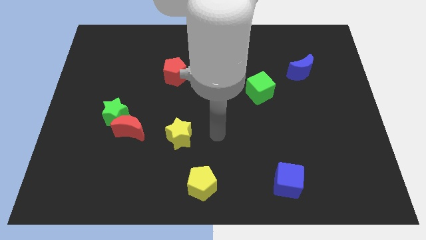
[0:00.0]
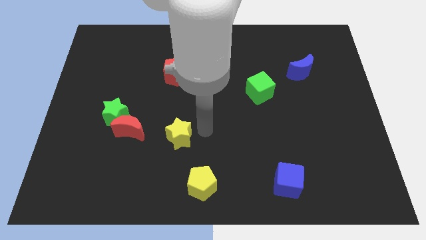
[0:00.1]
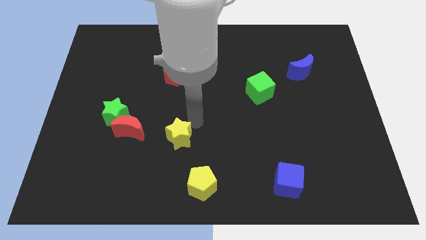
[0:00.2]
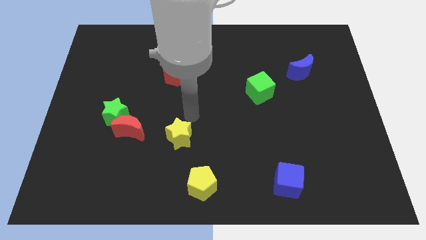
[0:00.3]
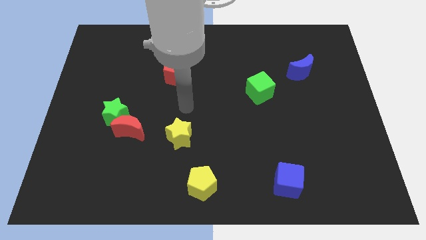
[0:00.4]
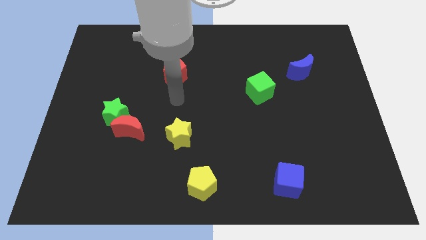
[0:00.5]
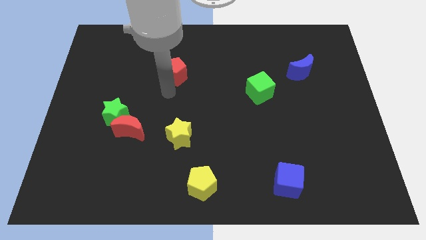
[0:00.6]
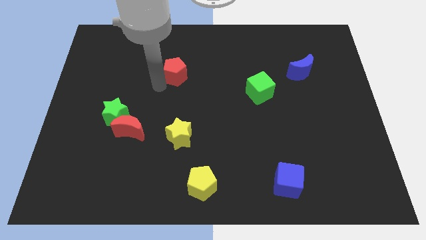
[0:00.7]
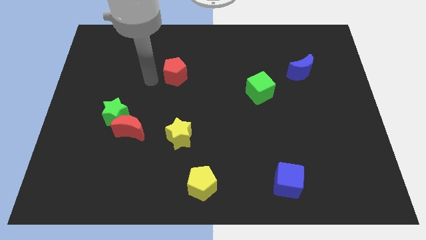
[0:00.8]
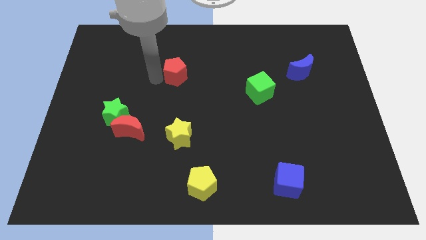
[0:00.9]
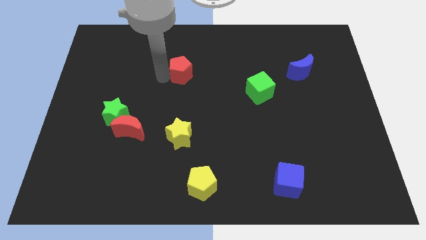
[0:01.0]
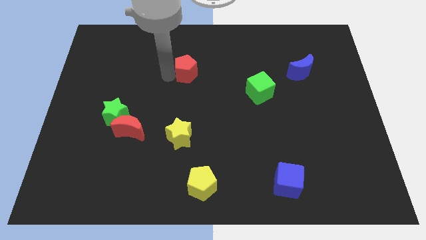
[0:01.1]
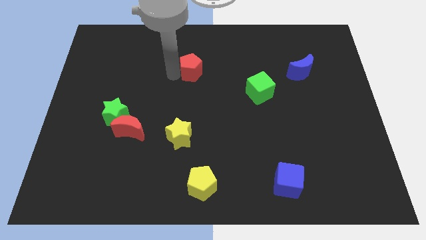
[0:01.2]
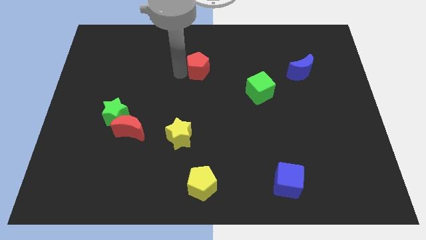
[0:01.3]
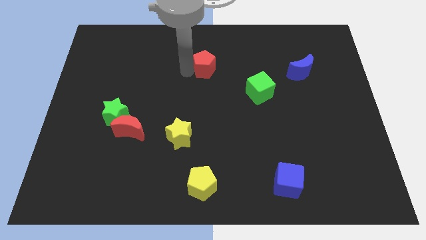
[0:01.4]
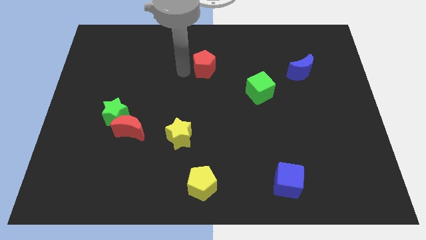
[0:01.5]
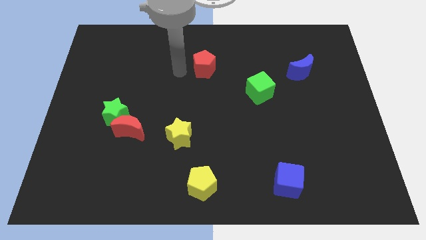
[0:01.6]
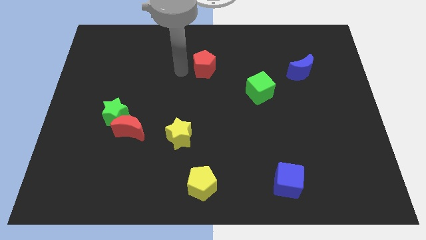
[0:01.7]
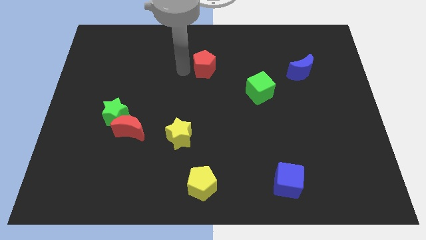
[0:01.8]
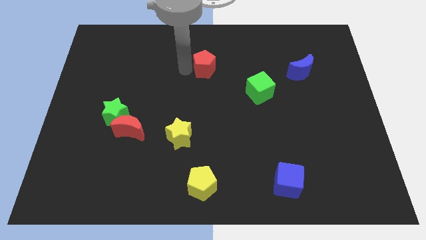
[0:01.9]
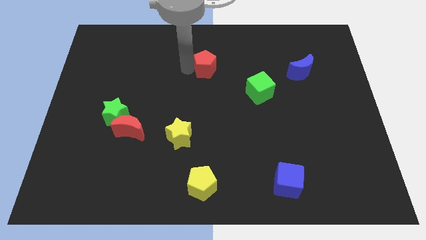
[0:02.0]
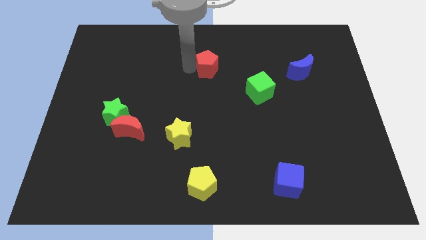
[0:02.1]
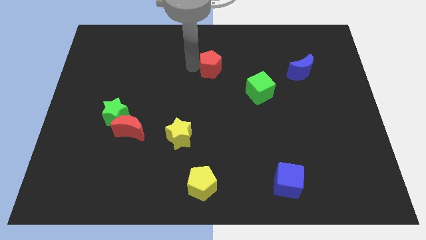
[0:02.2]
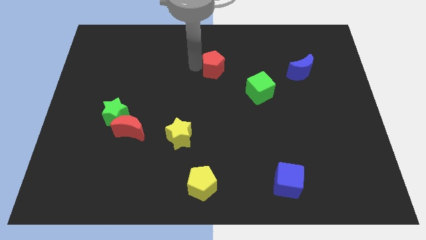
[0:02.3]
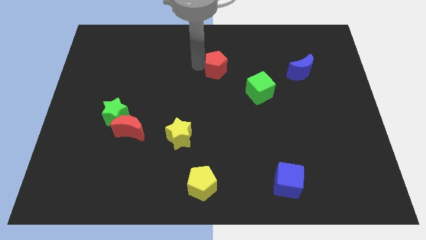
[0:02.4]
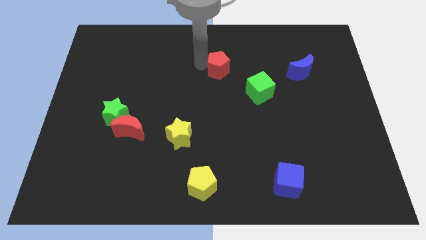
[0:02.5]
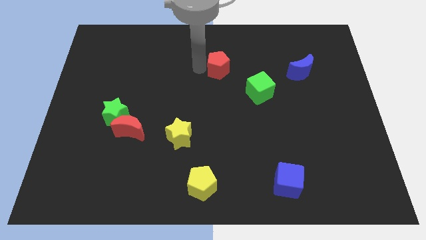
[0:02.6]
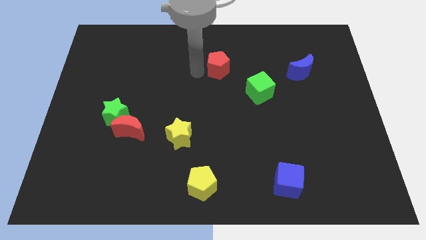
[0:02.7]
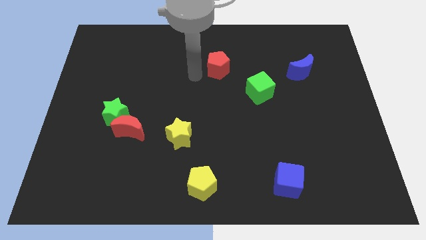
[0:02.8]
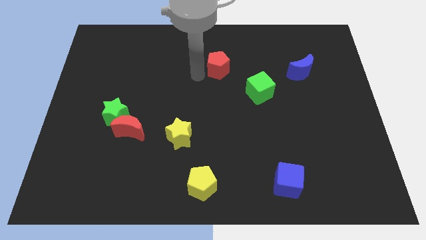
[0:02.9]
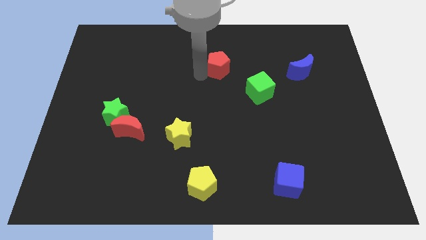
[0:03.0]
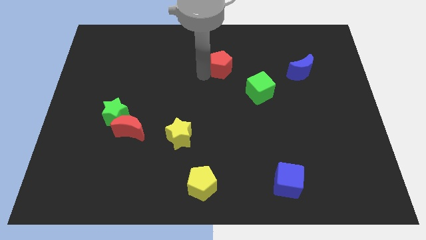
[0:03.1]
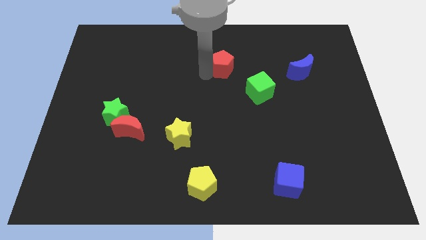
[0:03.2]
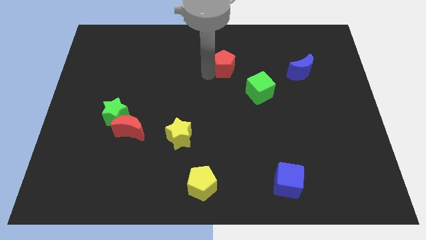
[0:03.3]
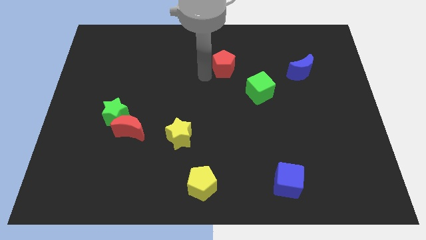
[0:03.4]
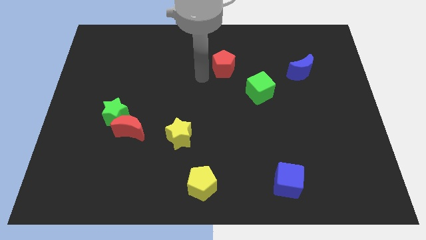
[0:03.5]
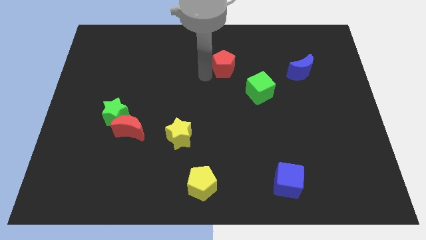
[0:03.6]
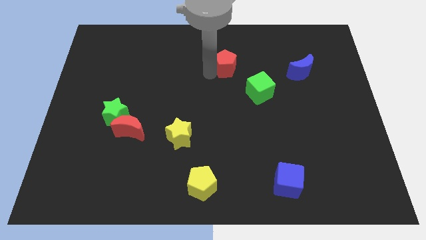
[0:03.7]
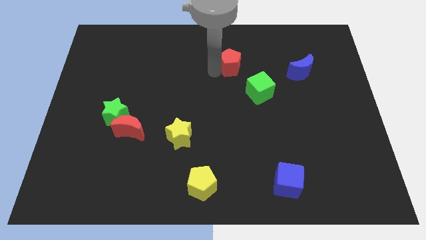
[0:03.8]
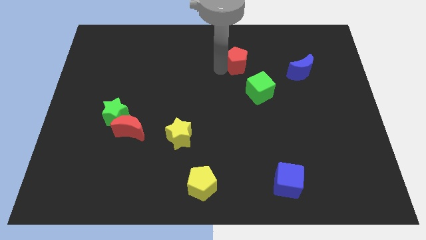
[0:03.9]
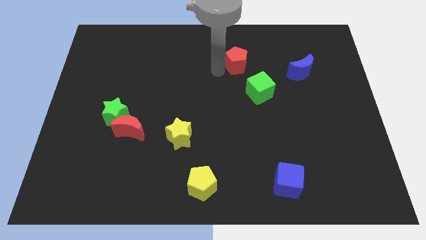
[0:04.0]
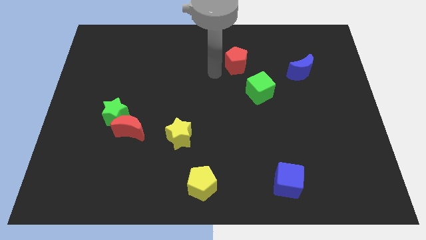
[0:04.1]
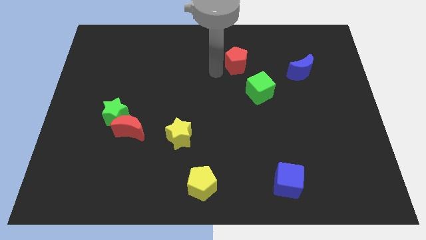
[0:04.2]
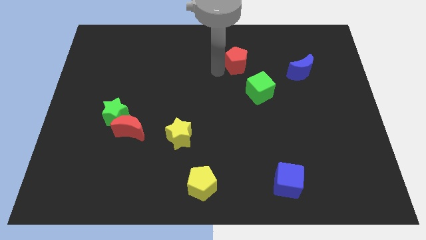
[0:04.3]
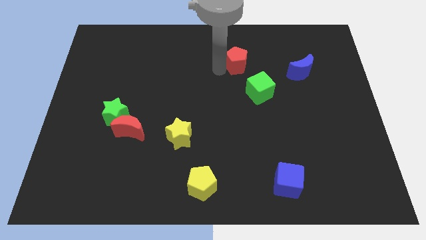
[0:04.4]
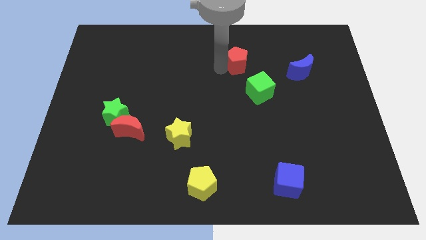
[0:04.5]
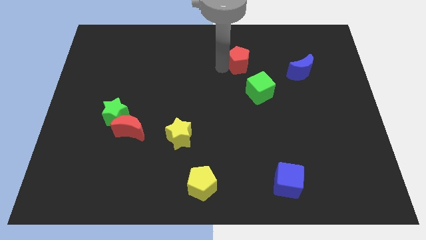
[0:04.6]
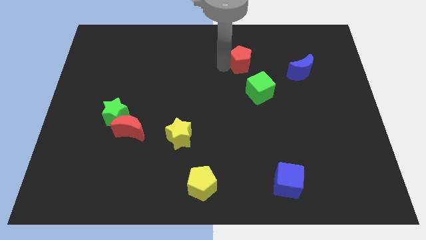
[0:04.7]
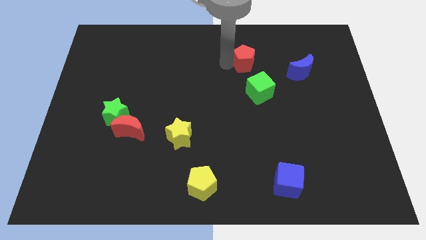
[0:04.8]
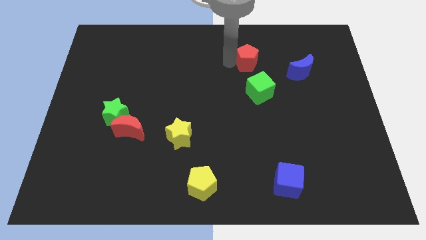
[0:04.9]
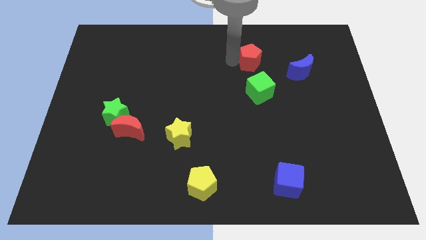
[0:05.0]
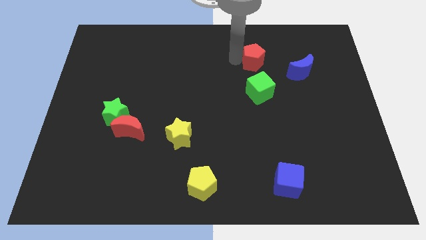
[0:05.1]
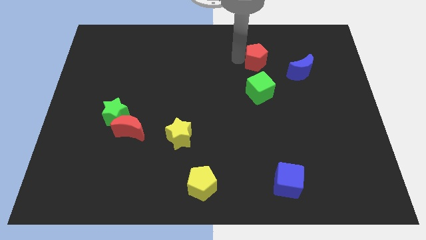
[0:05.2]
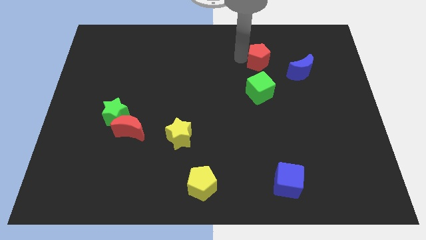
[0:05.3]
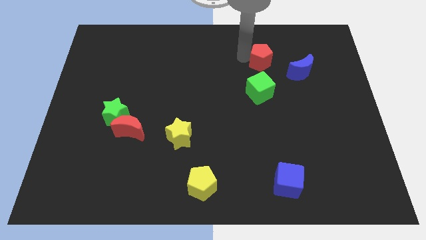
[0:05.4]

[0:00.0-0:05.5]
put the red pentagon to the top left side of the blue moon

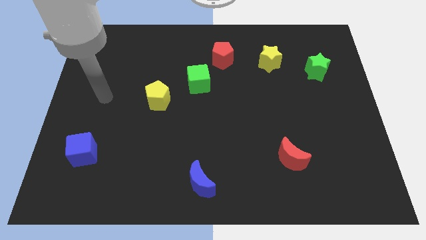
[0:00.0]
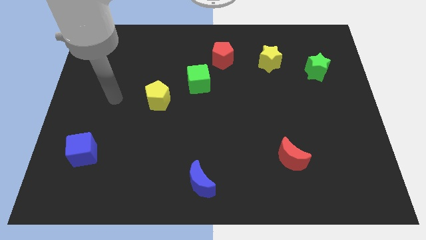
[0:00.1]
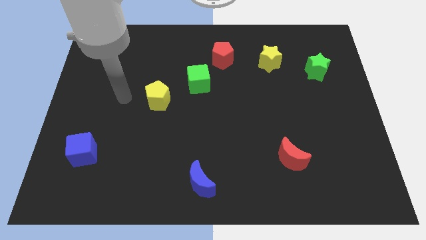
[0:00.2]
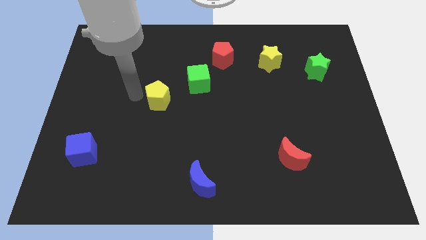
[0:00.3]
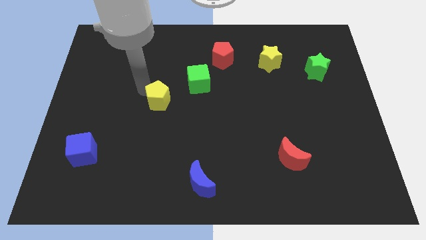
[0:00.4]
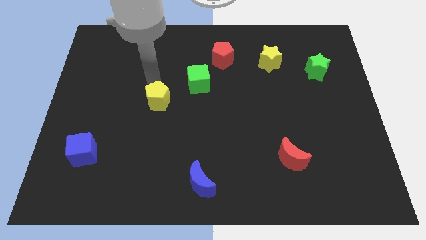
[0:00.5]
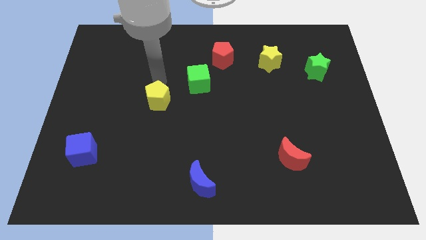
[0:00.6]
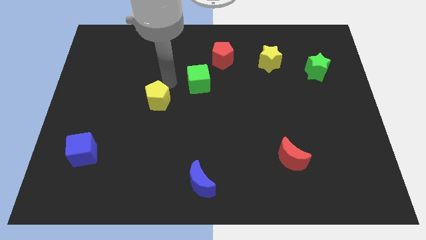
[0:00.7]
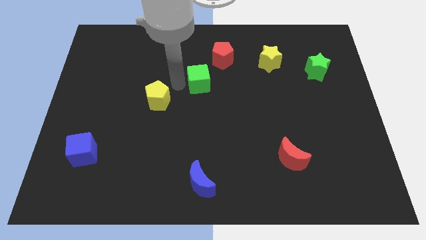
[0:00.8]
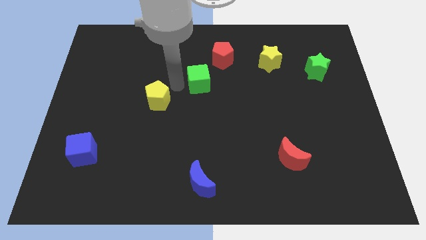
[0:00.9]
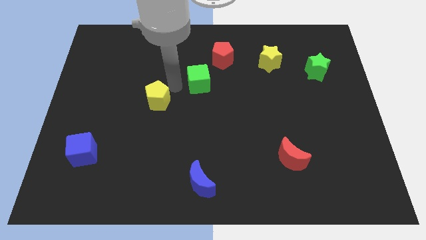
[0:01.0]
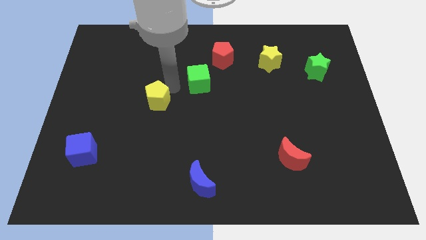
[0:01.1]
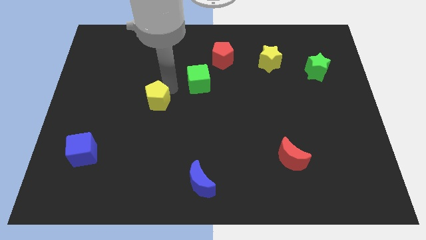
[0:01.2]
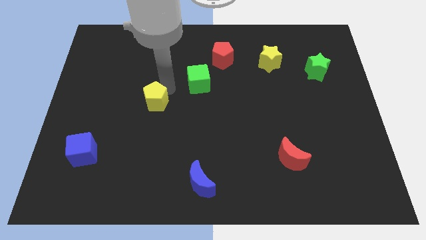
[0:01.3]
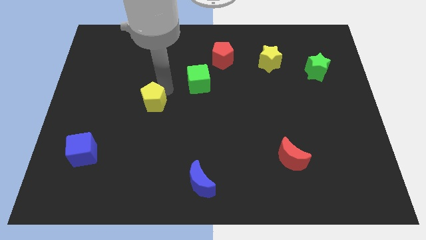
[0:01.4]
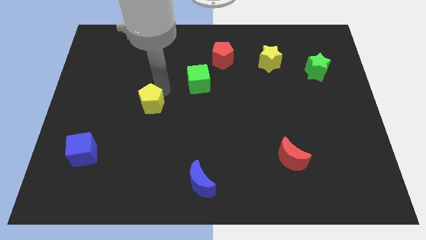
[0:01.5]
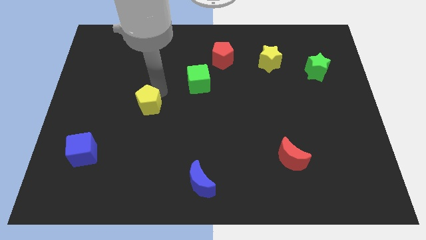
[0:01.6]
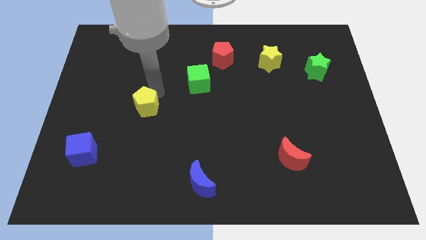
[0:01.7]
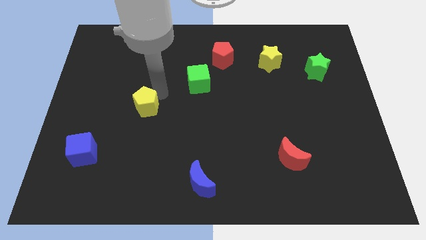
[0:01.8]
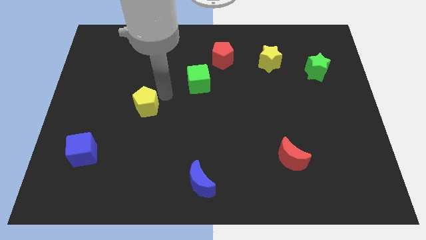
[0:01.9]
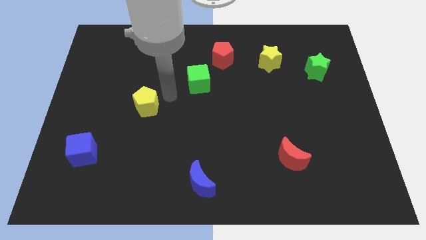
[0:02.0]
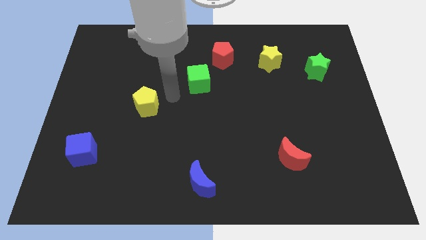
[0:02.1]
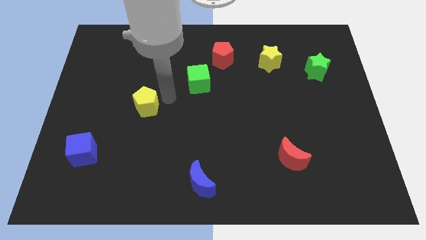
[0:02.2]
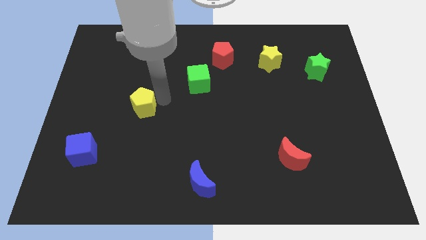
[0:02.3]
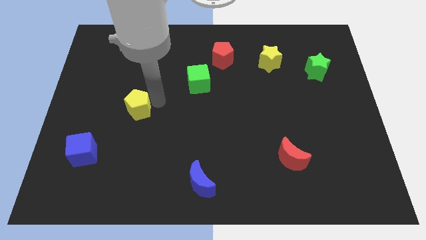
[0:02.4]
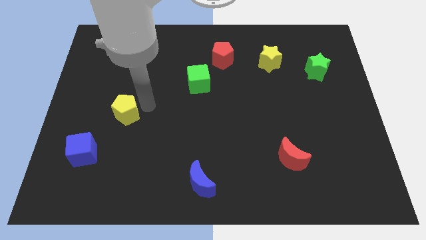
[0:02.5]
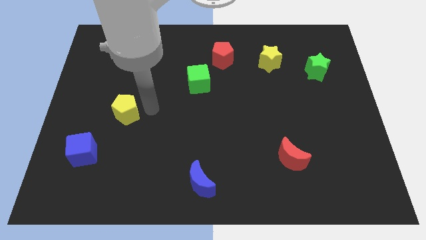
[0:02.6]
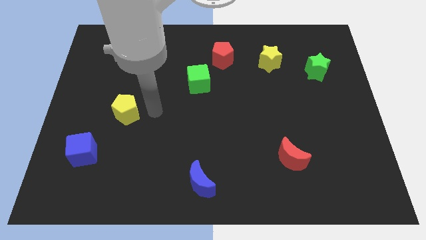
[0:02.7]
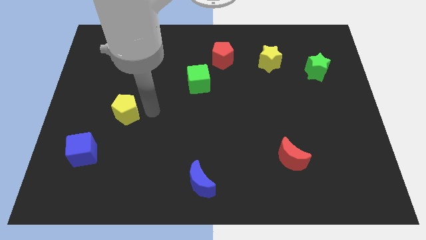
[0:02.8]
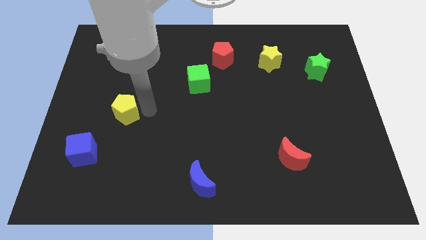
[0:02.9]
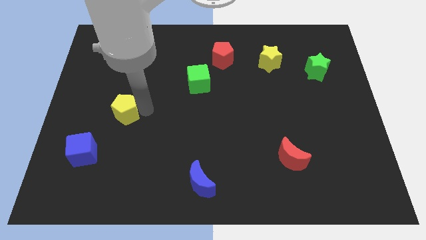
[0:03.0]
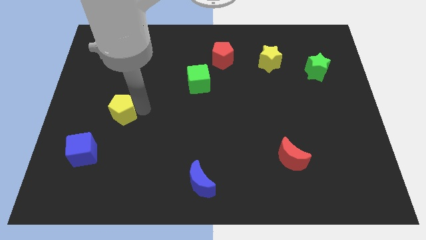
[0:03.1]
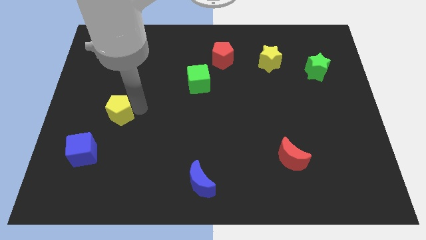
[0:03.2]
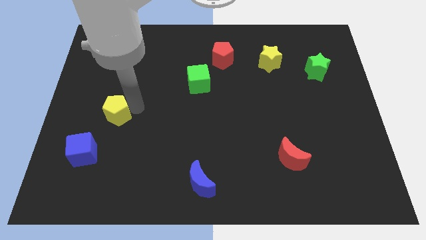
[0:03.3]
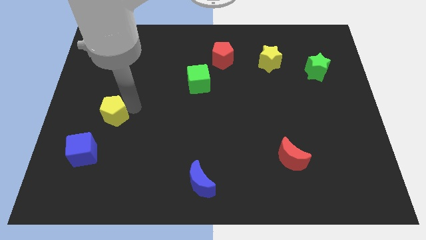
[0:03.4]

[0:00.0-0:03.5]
slide the yellow pentagon to the top side of the blue cube
